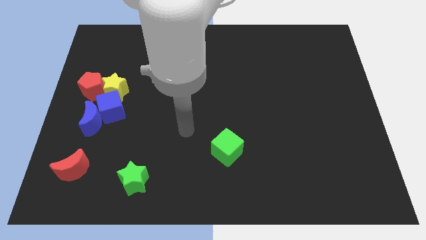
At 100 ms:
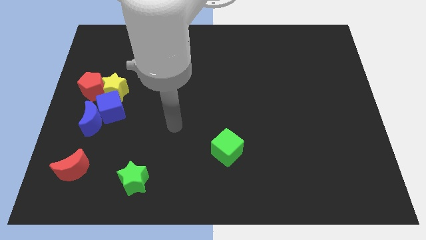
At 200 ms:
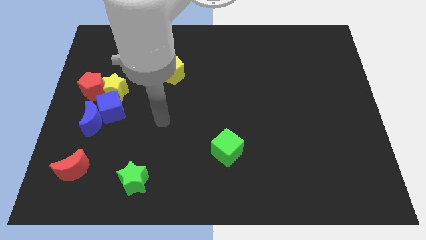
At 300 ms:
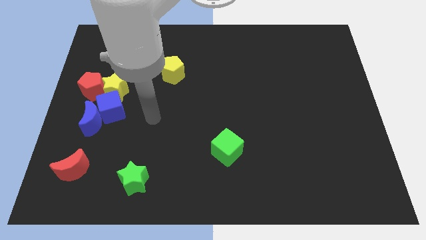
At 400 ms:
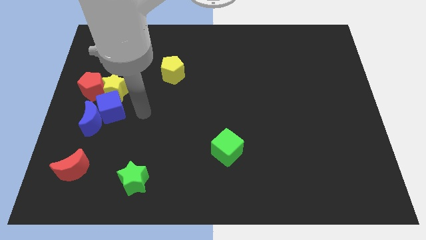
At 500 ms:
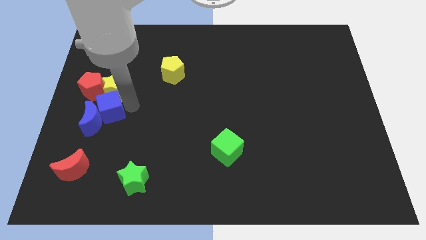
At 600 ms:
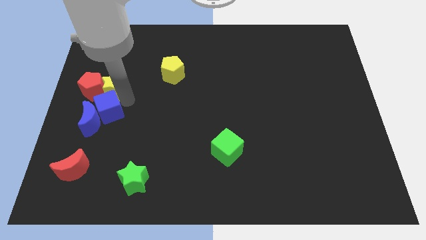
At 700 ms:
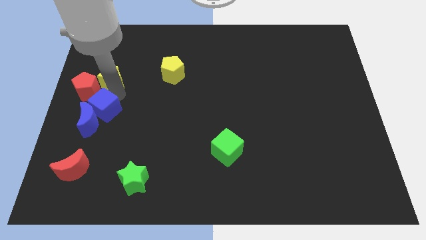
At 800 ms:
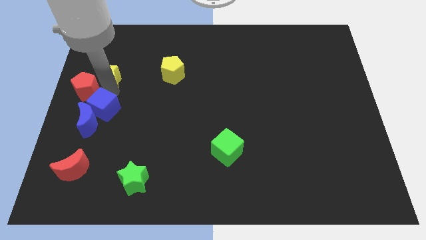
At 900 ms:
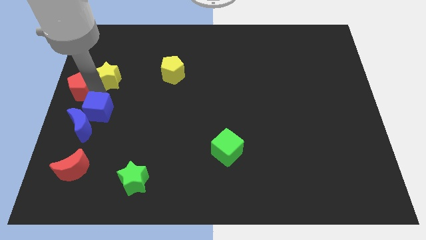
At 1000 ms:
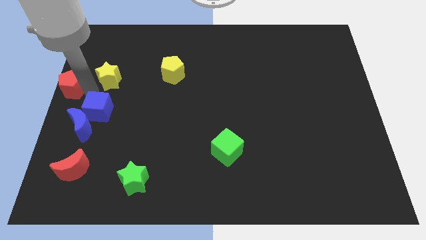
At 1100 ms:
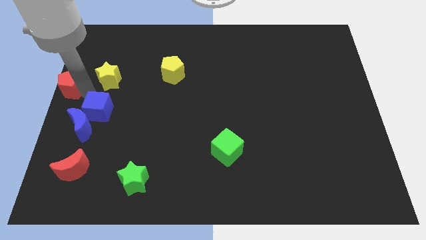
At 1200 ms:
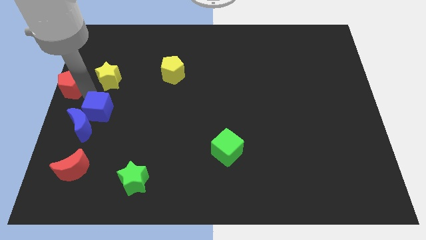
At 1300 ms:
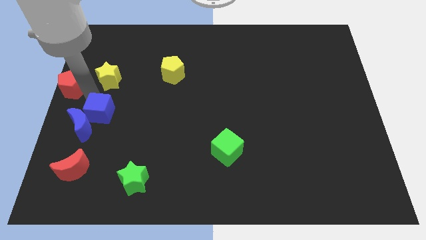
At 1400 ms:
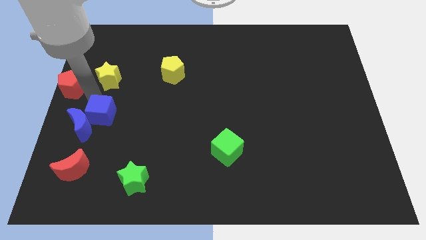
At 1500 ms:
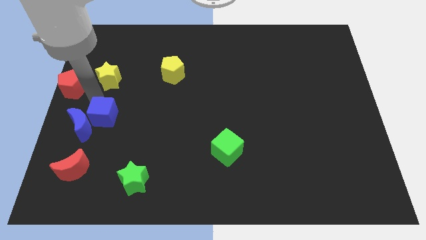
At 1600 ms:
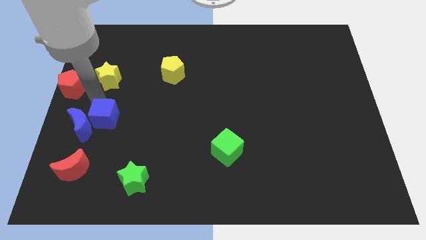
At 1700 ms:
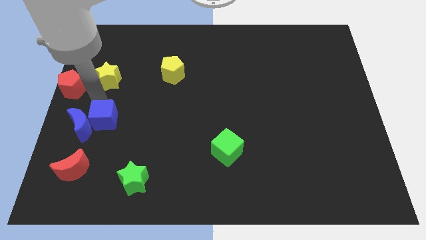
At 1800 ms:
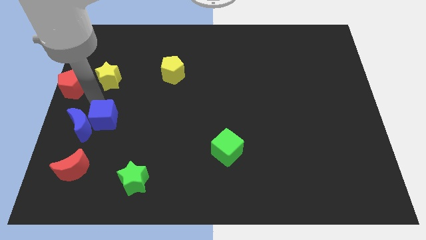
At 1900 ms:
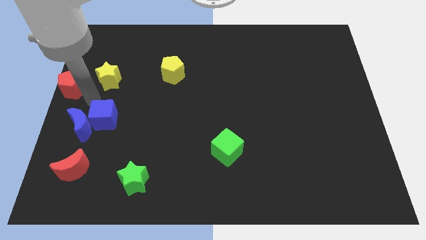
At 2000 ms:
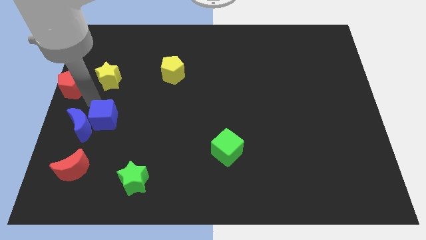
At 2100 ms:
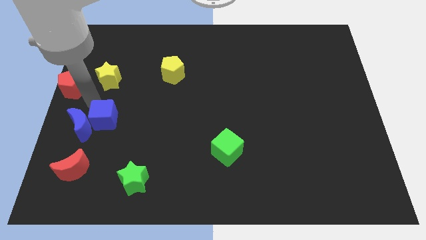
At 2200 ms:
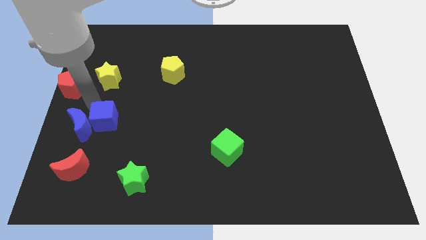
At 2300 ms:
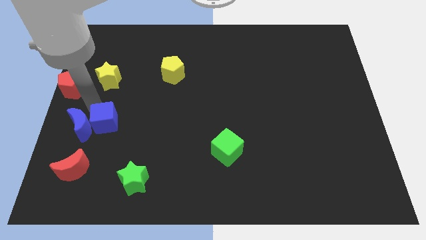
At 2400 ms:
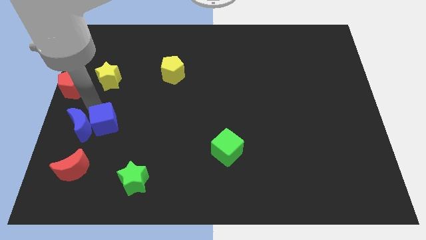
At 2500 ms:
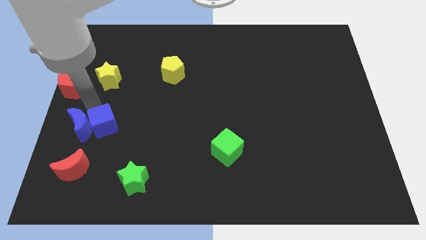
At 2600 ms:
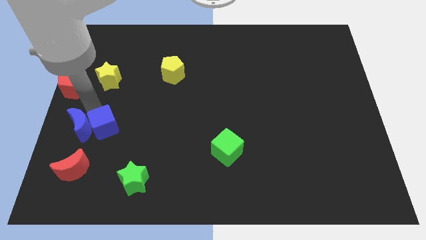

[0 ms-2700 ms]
pull the blue cube apart from the blue moon, yellow star, and red pentagon

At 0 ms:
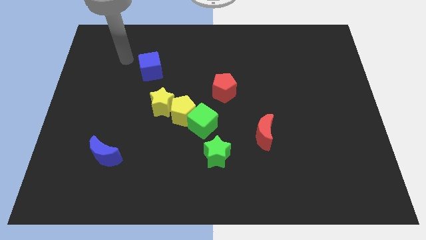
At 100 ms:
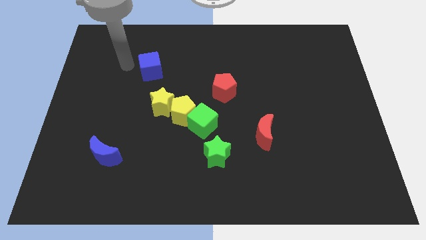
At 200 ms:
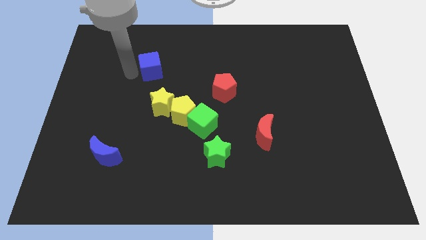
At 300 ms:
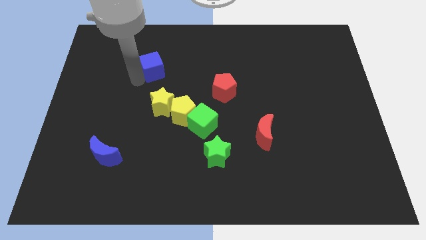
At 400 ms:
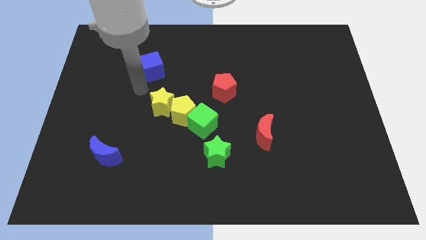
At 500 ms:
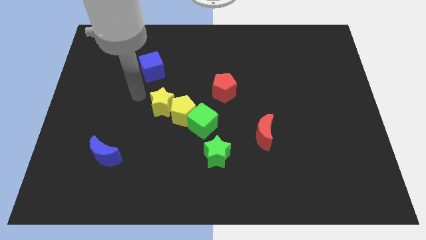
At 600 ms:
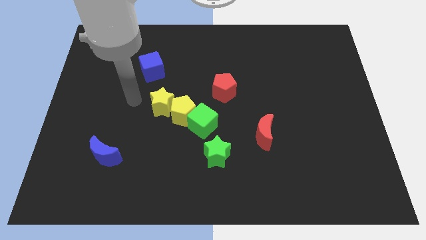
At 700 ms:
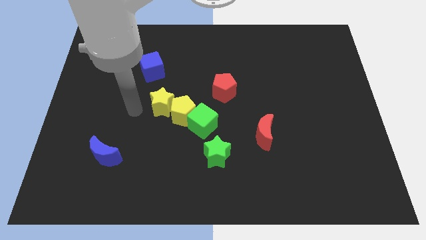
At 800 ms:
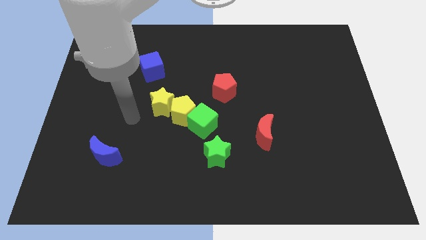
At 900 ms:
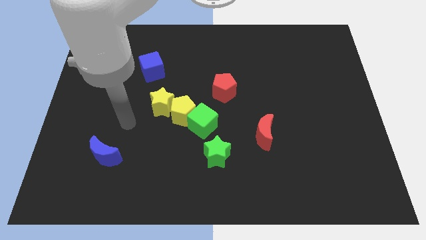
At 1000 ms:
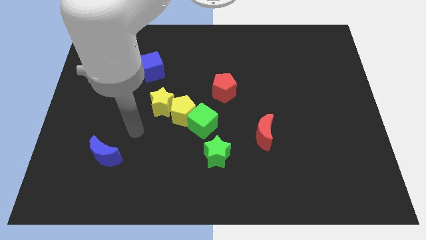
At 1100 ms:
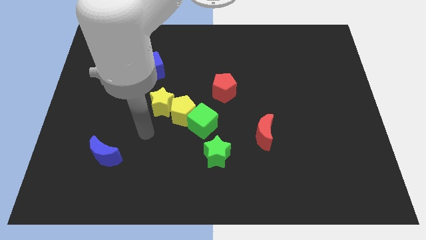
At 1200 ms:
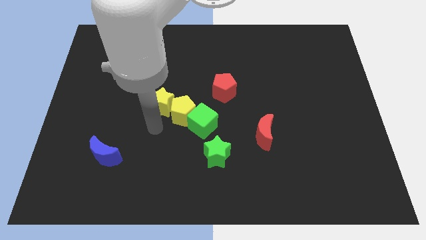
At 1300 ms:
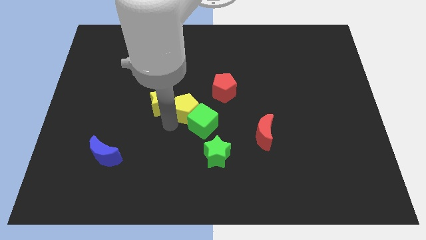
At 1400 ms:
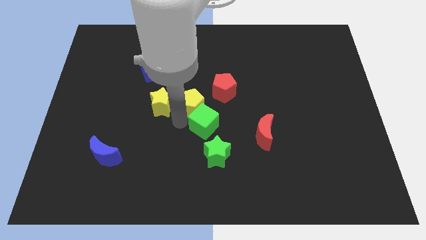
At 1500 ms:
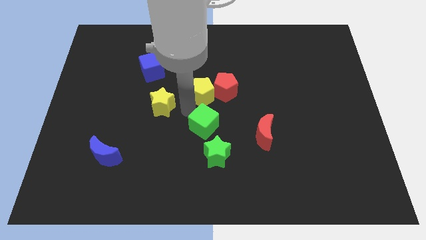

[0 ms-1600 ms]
move the yellow star away from the yellow pentagon

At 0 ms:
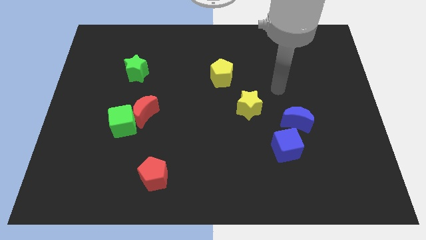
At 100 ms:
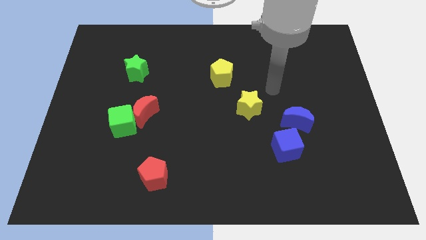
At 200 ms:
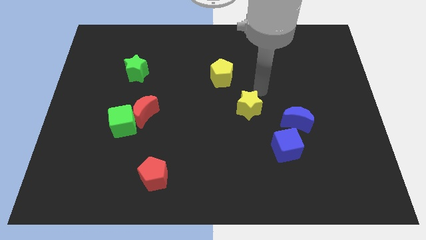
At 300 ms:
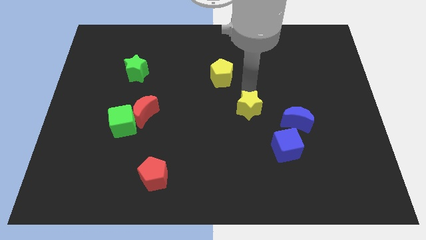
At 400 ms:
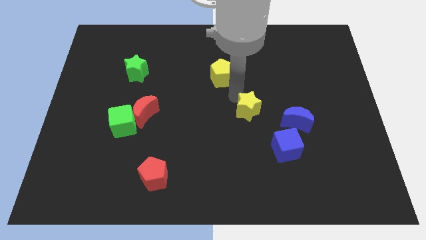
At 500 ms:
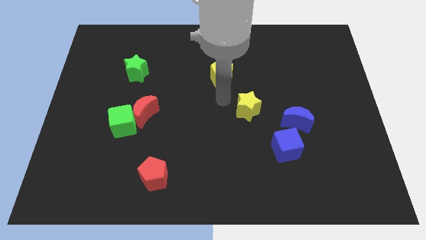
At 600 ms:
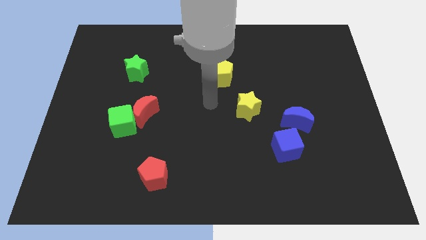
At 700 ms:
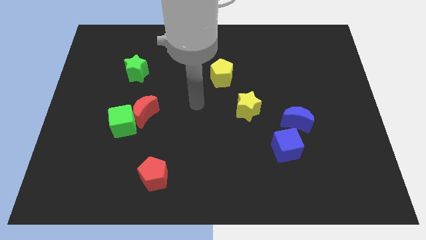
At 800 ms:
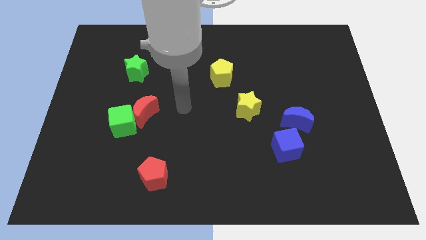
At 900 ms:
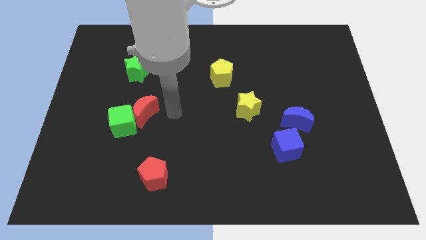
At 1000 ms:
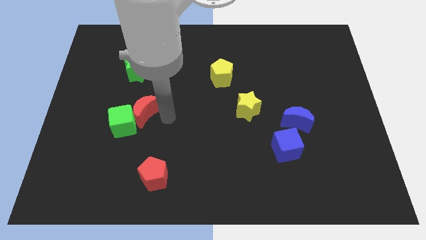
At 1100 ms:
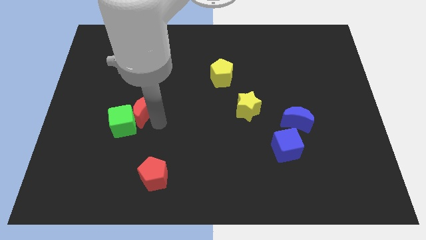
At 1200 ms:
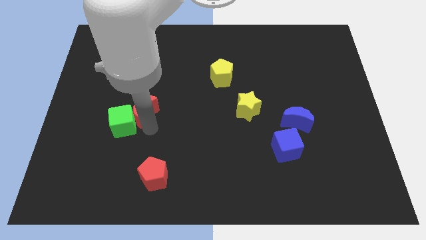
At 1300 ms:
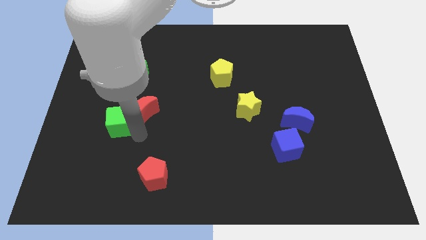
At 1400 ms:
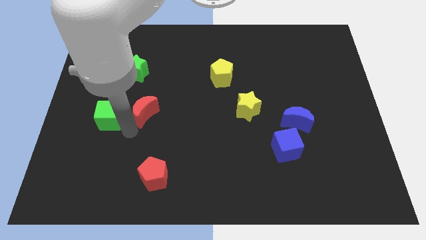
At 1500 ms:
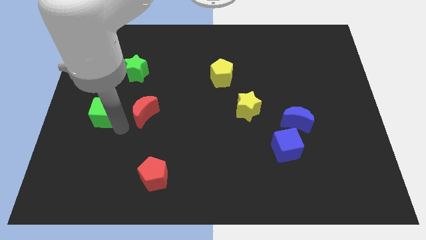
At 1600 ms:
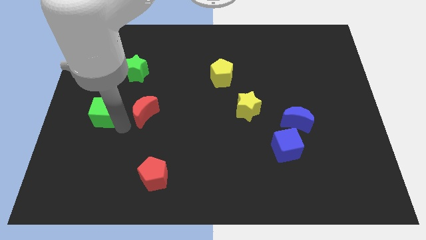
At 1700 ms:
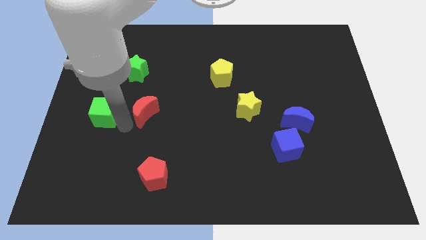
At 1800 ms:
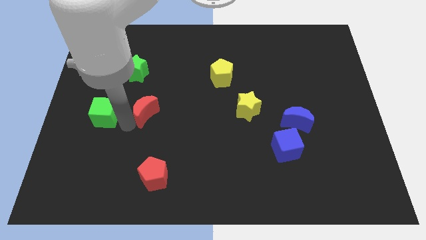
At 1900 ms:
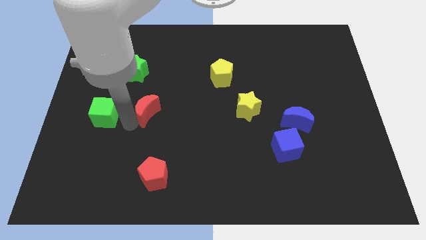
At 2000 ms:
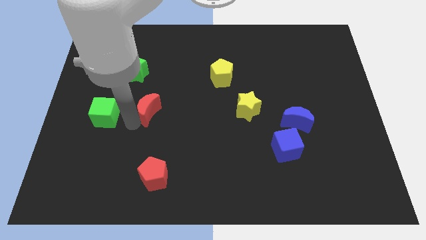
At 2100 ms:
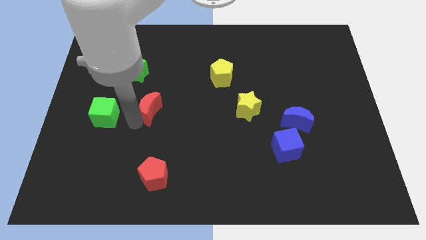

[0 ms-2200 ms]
pull the red moon apart from the green cube

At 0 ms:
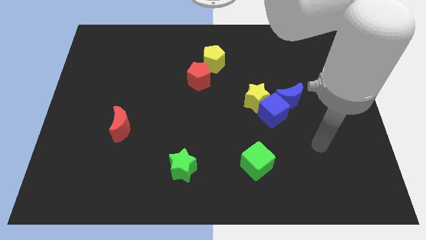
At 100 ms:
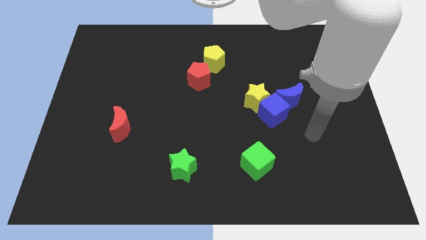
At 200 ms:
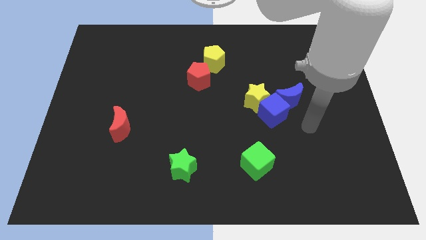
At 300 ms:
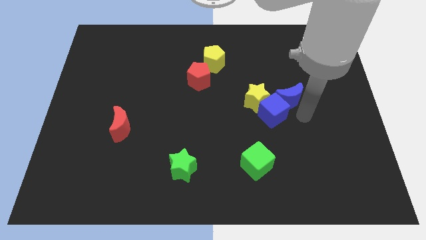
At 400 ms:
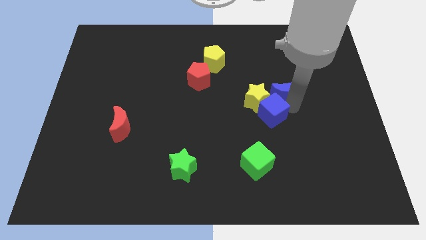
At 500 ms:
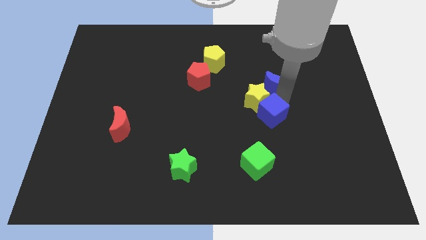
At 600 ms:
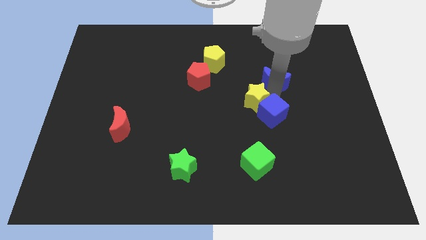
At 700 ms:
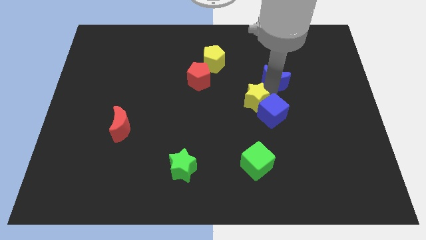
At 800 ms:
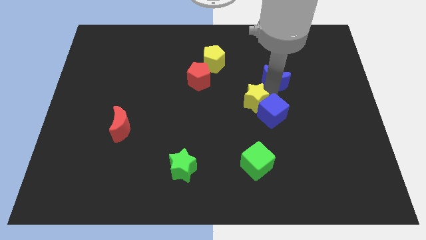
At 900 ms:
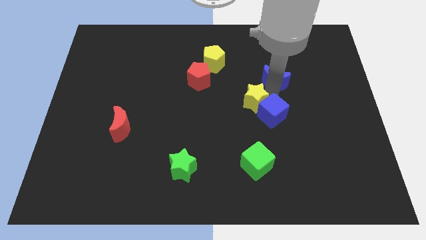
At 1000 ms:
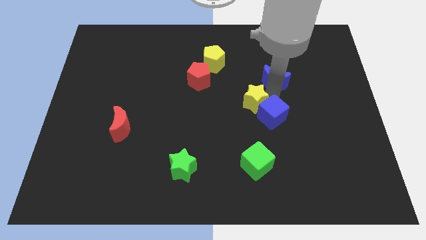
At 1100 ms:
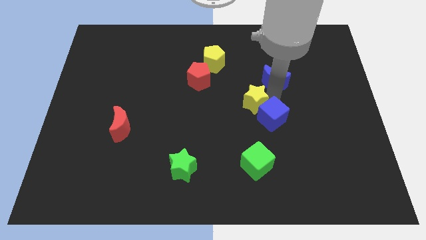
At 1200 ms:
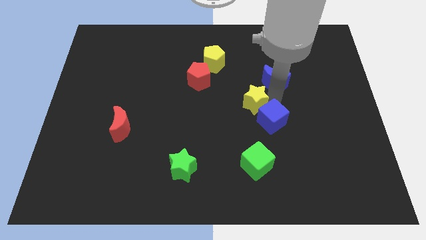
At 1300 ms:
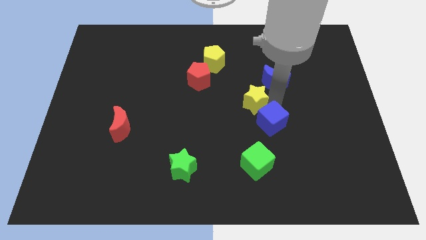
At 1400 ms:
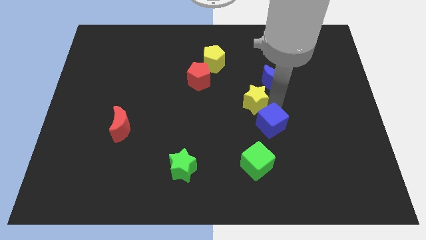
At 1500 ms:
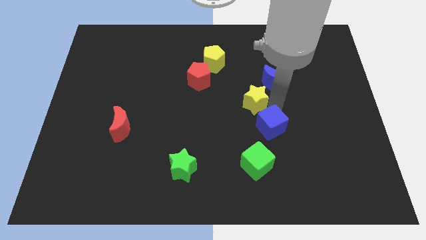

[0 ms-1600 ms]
separate the blue cube from the yellow star and blue moon

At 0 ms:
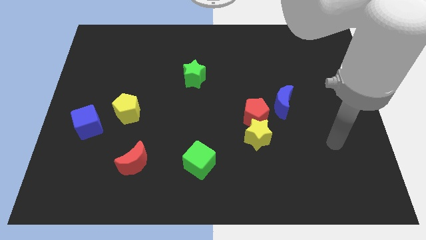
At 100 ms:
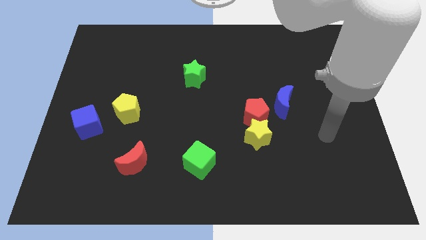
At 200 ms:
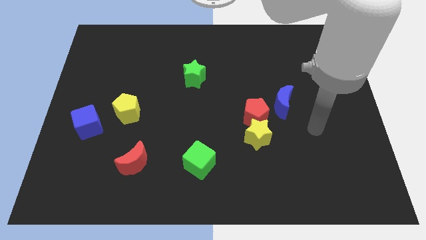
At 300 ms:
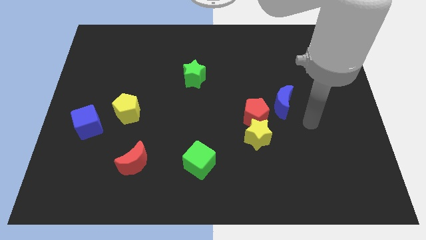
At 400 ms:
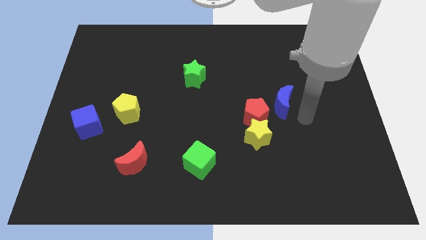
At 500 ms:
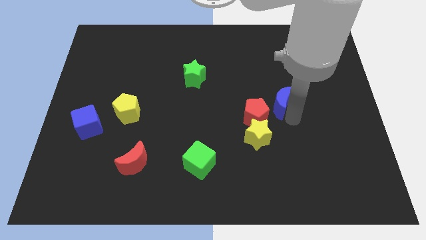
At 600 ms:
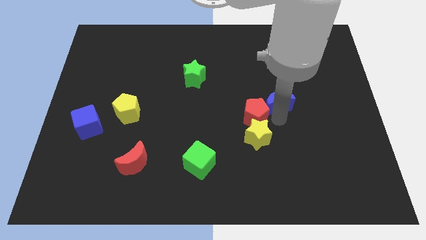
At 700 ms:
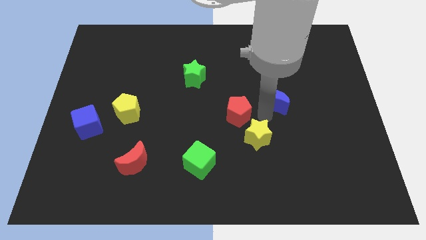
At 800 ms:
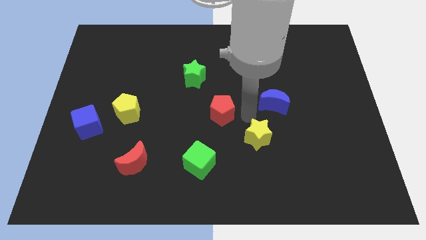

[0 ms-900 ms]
pull the yellow star apart from the red pentagon

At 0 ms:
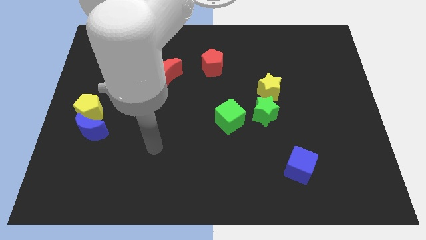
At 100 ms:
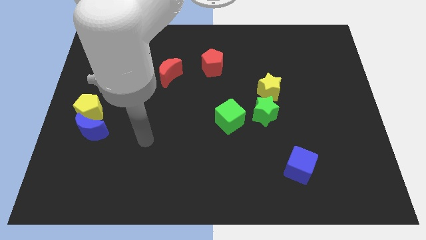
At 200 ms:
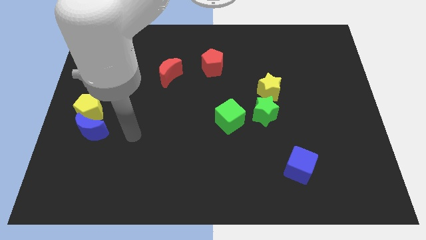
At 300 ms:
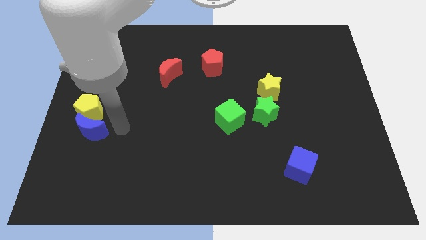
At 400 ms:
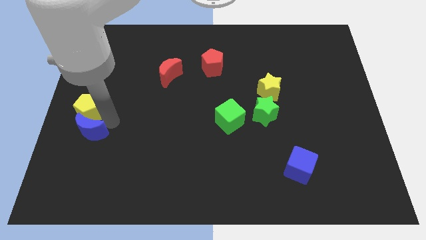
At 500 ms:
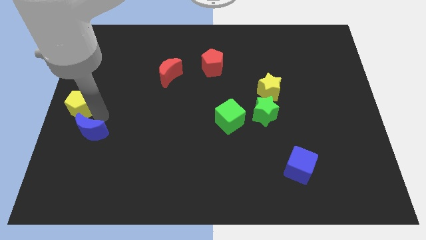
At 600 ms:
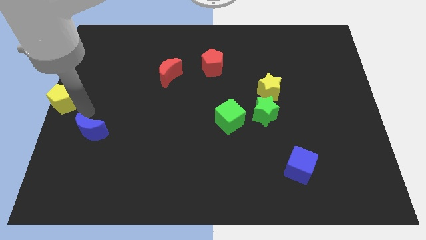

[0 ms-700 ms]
separate the blue moon from the yellow pentagon
